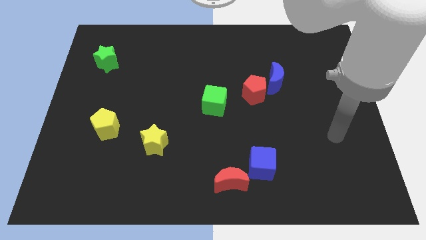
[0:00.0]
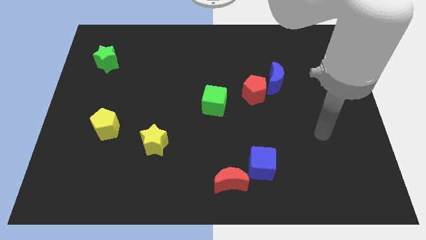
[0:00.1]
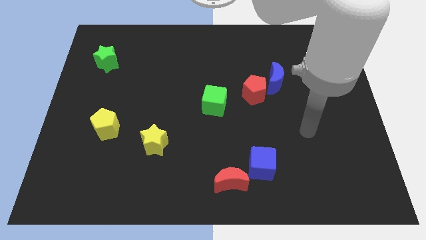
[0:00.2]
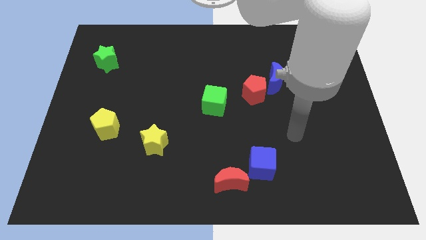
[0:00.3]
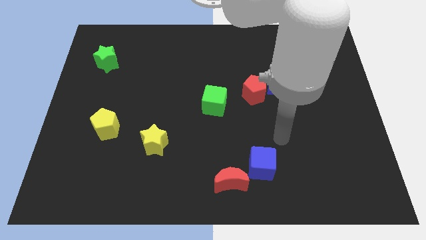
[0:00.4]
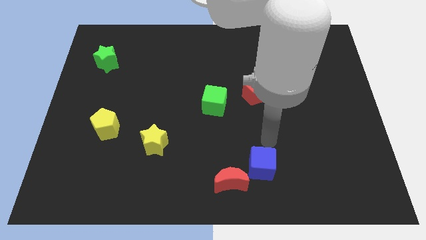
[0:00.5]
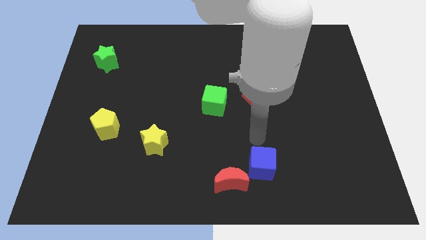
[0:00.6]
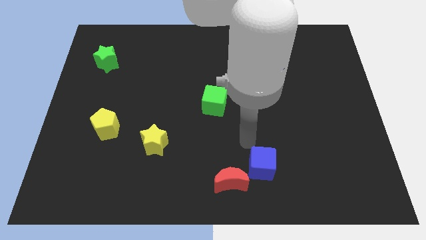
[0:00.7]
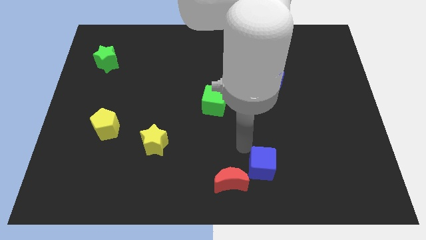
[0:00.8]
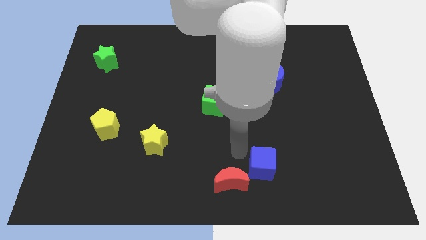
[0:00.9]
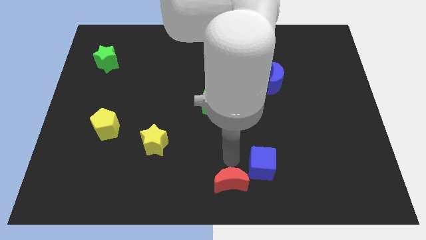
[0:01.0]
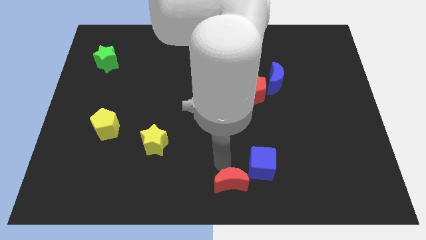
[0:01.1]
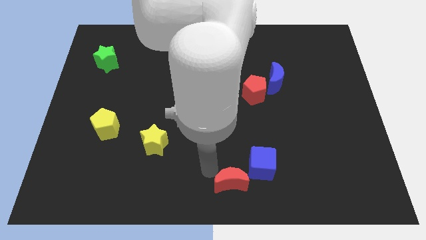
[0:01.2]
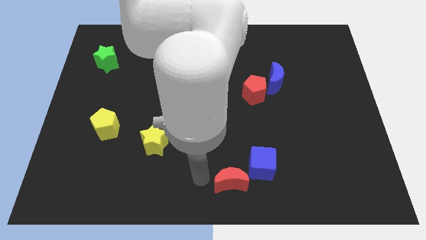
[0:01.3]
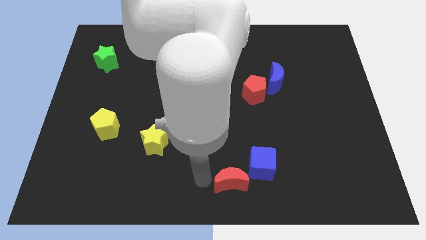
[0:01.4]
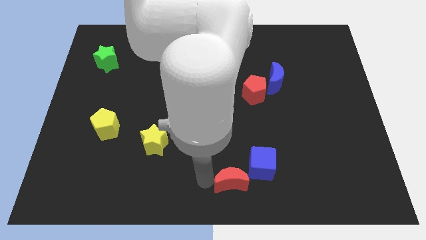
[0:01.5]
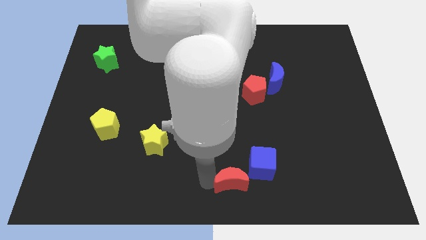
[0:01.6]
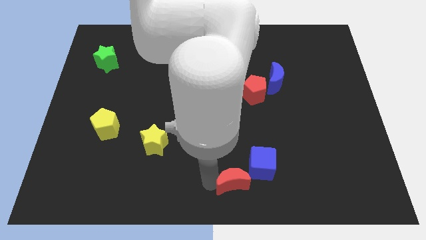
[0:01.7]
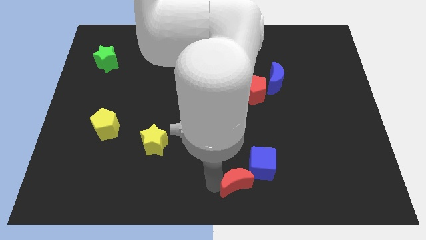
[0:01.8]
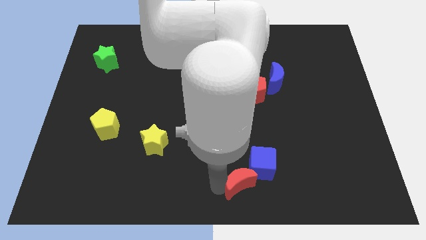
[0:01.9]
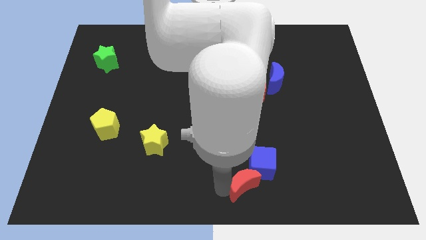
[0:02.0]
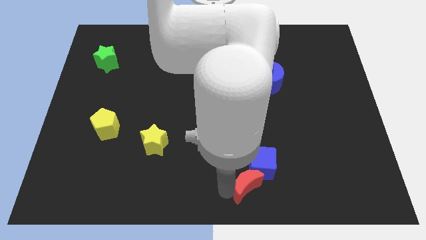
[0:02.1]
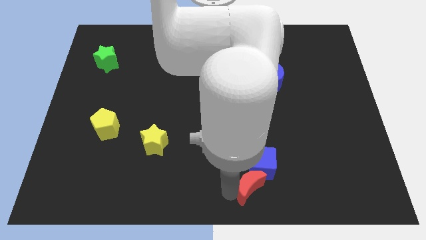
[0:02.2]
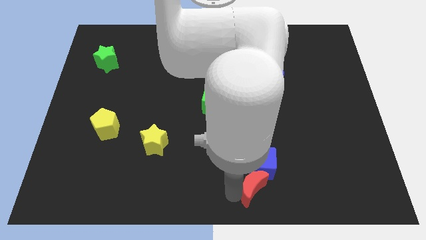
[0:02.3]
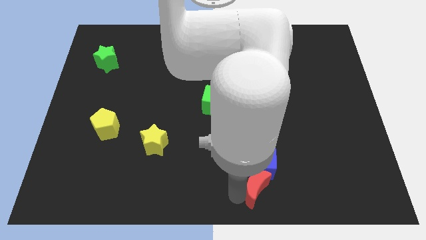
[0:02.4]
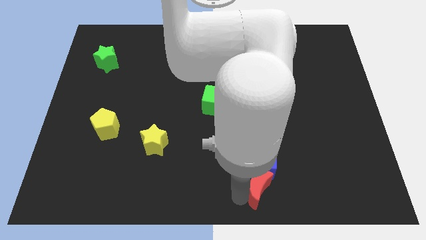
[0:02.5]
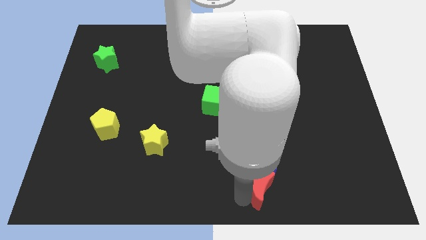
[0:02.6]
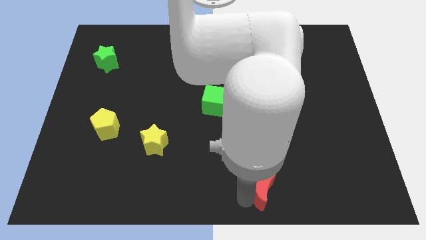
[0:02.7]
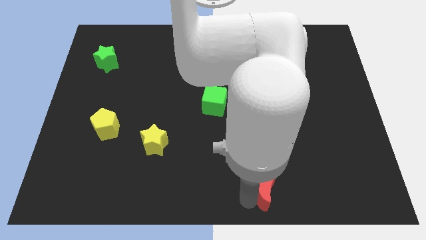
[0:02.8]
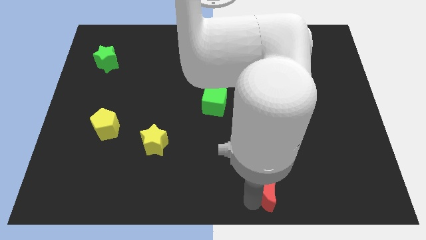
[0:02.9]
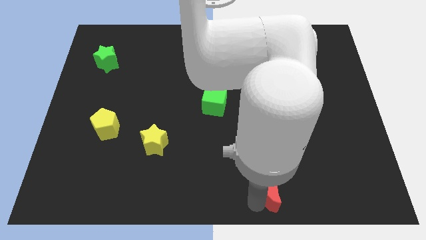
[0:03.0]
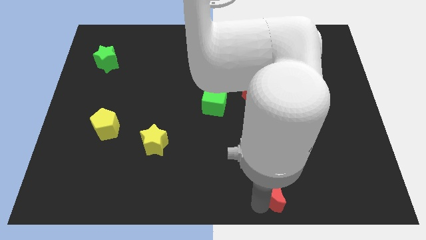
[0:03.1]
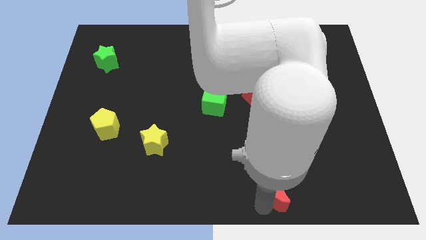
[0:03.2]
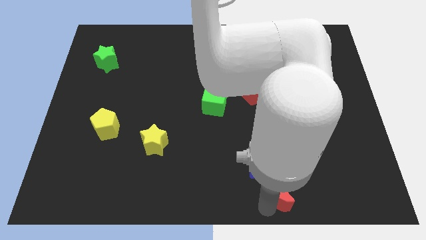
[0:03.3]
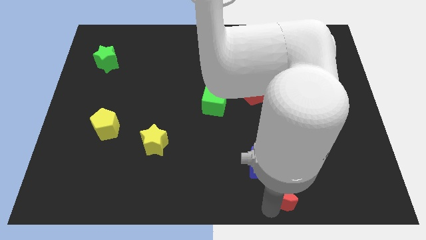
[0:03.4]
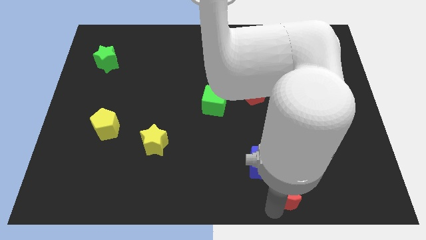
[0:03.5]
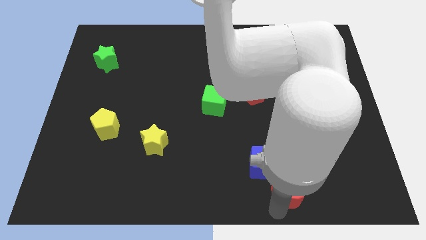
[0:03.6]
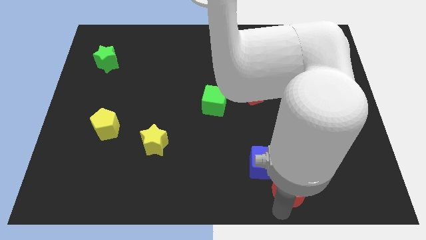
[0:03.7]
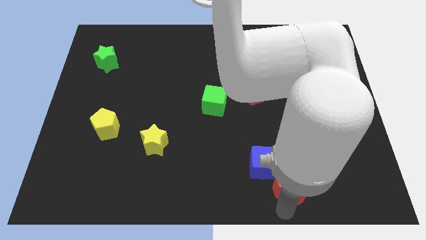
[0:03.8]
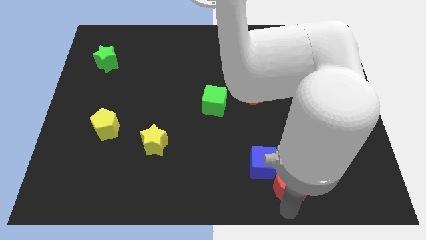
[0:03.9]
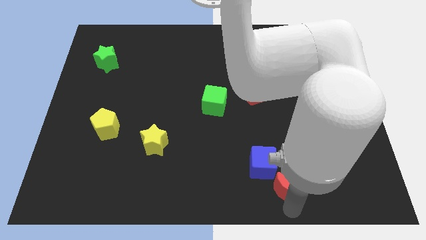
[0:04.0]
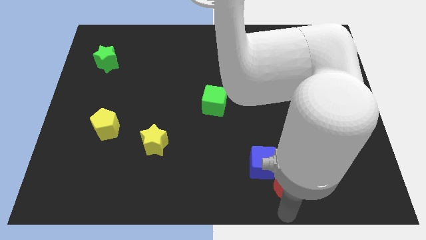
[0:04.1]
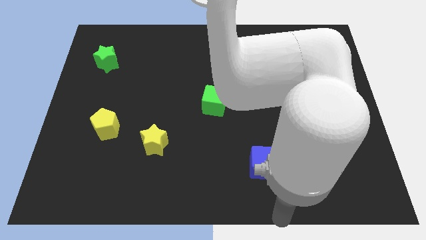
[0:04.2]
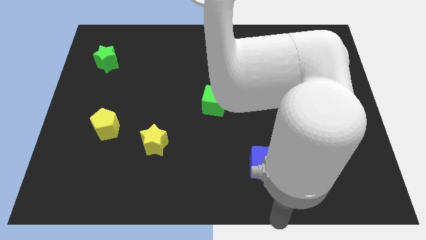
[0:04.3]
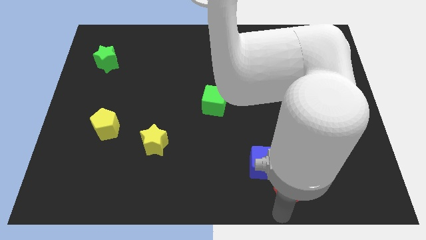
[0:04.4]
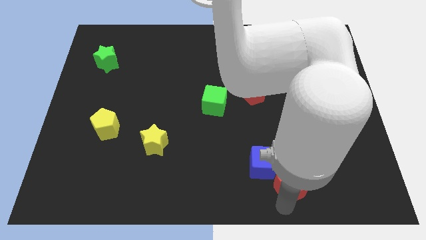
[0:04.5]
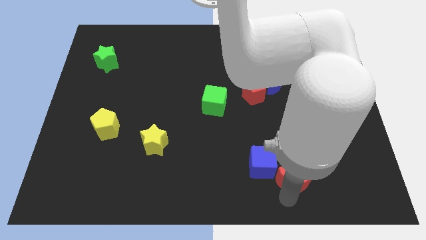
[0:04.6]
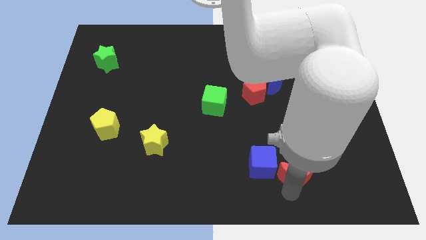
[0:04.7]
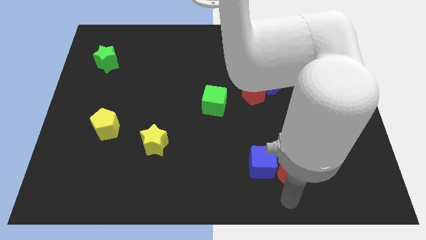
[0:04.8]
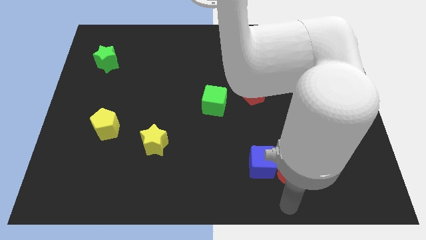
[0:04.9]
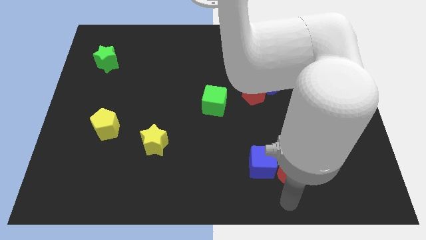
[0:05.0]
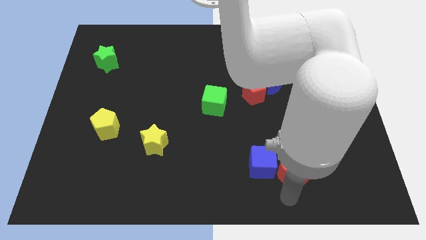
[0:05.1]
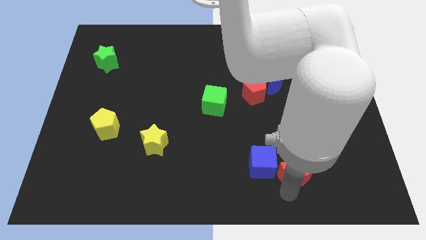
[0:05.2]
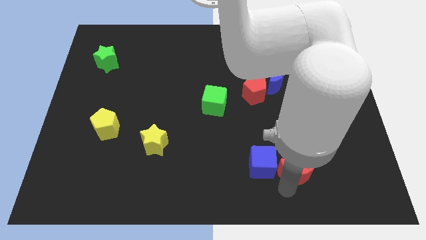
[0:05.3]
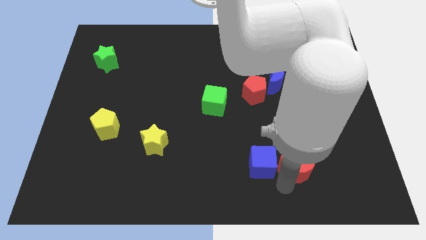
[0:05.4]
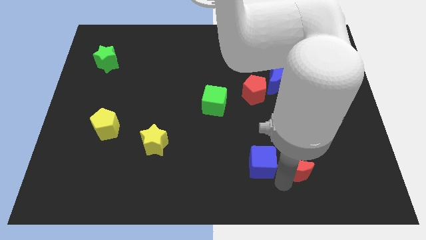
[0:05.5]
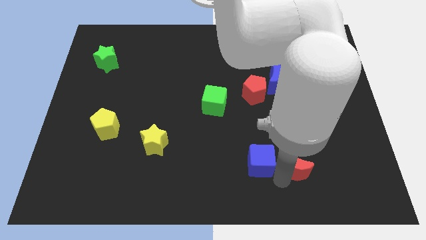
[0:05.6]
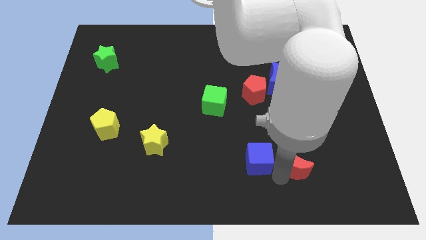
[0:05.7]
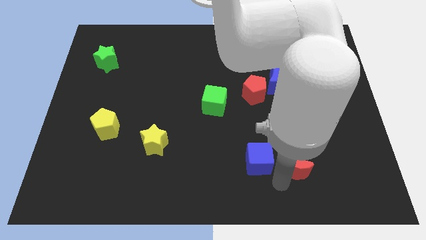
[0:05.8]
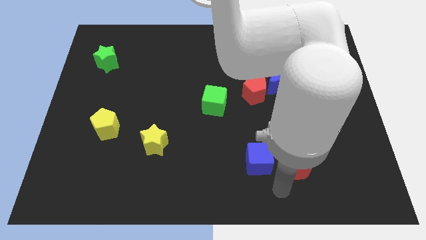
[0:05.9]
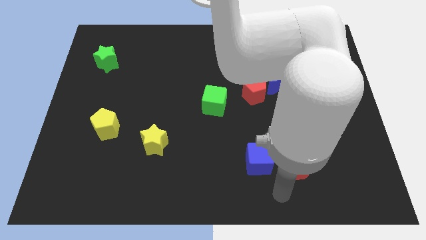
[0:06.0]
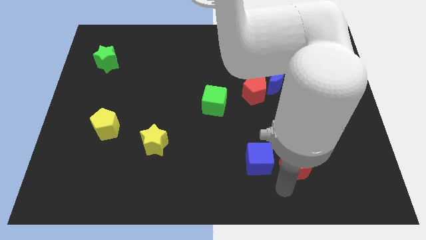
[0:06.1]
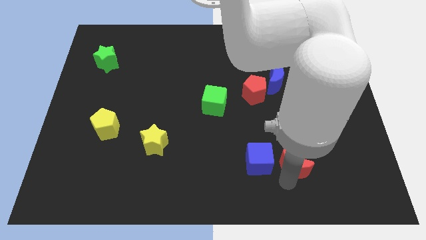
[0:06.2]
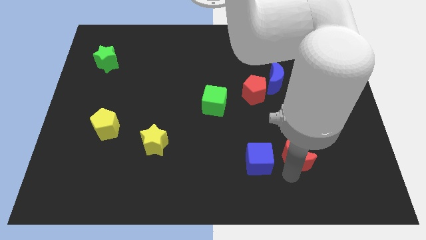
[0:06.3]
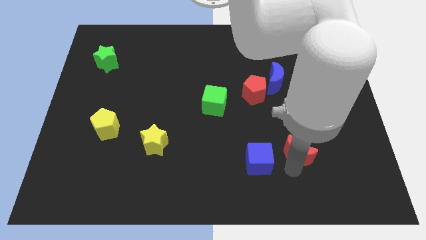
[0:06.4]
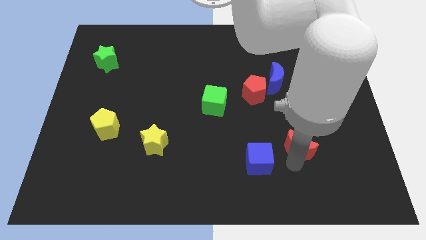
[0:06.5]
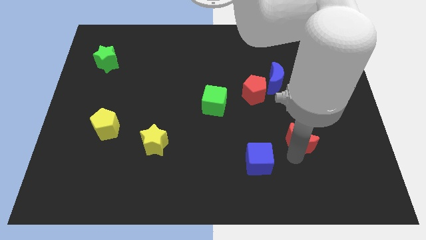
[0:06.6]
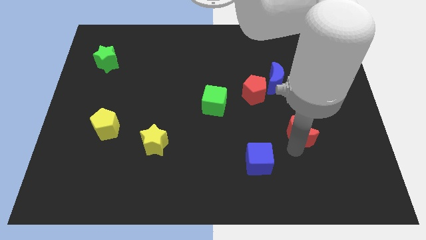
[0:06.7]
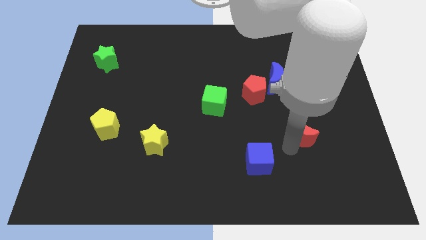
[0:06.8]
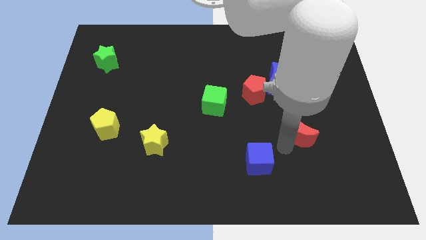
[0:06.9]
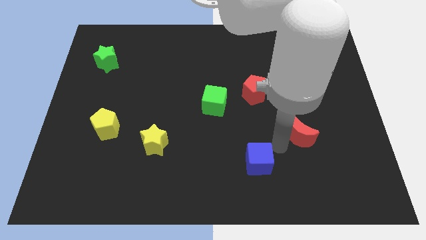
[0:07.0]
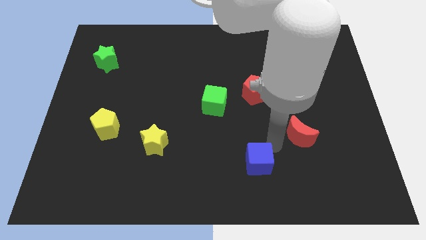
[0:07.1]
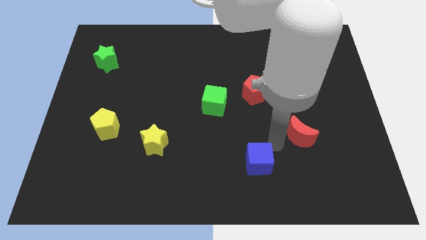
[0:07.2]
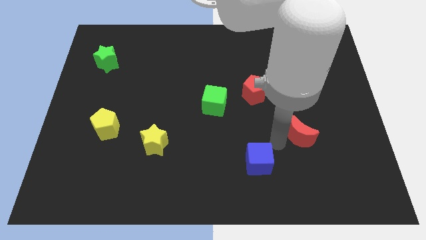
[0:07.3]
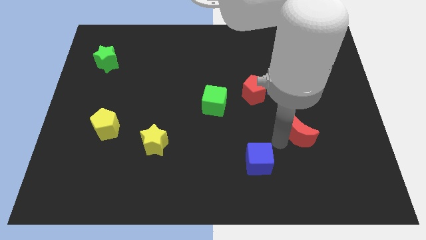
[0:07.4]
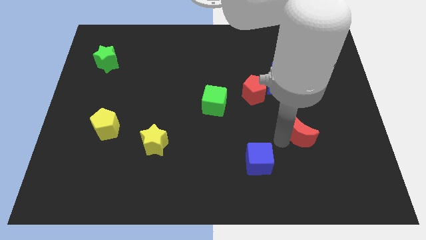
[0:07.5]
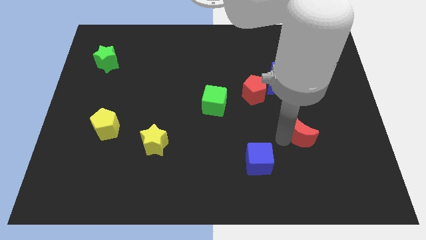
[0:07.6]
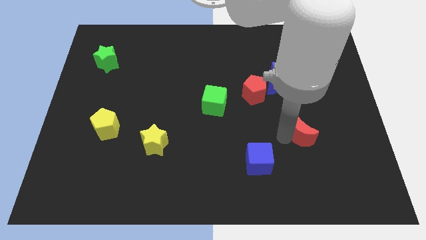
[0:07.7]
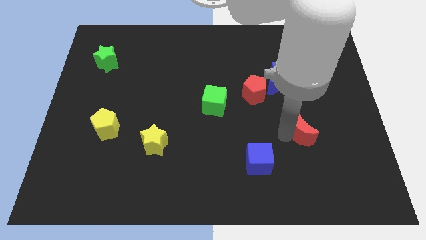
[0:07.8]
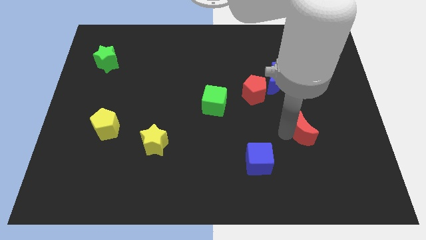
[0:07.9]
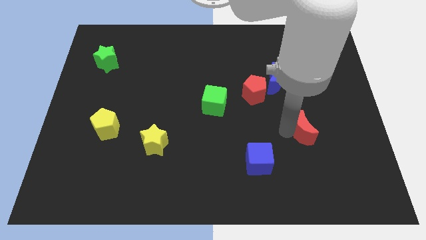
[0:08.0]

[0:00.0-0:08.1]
slide the red moon up and right diagonally

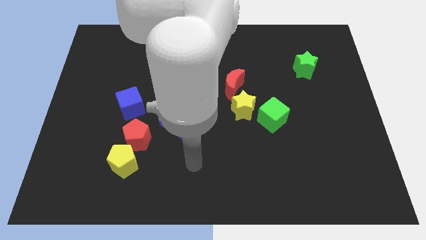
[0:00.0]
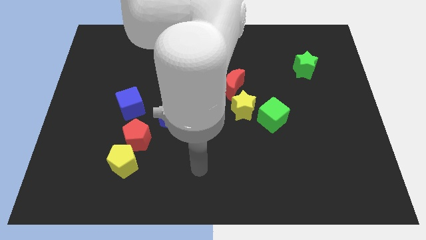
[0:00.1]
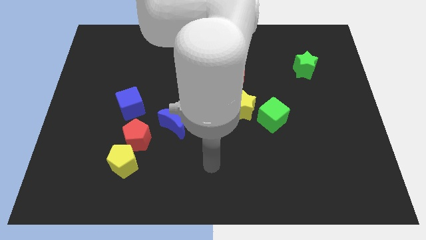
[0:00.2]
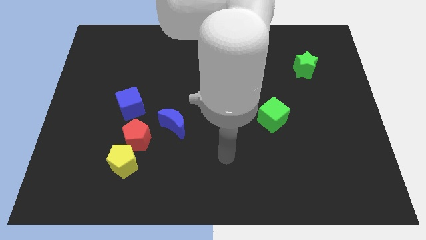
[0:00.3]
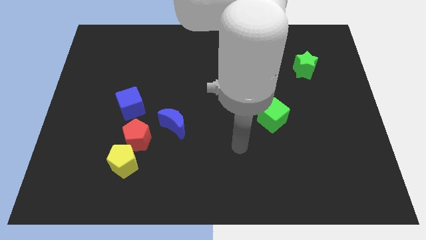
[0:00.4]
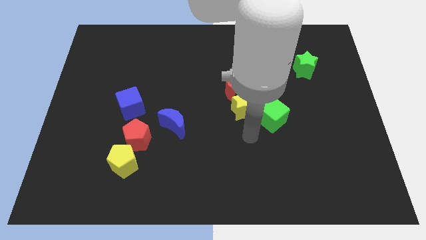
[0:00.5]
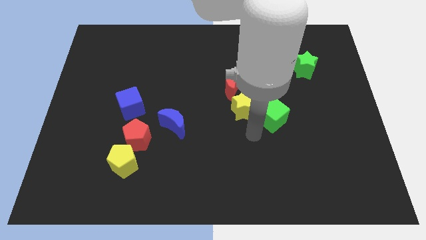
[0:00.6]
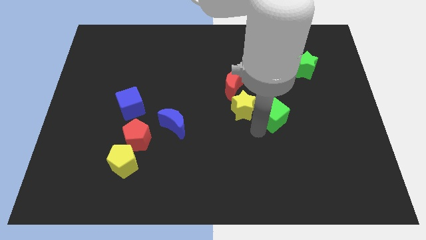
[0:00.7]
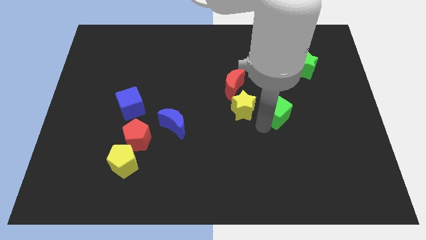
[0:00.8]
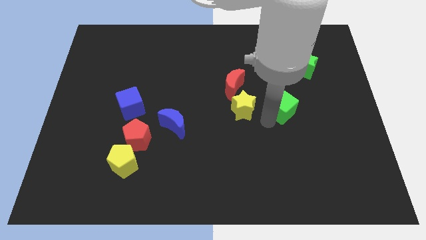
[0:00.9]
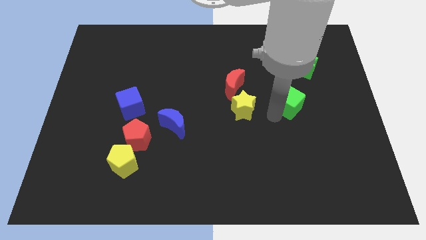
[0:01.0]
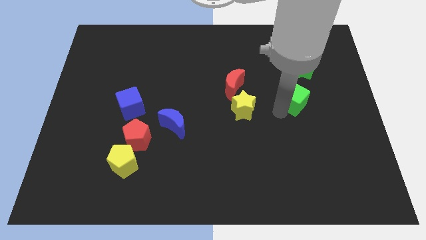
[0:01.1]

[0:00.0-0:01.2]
slightly move the green cube up and right diagonally
